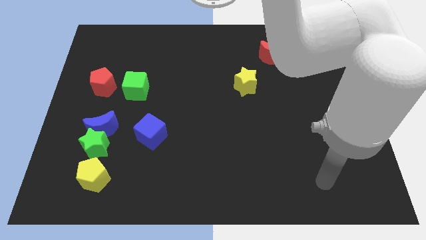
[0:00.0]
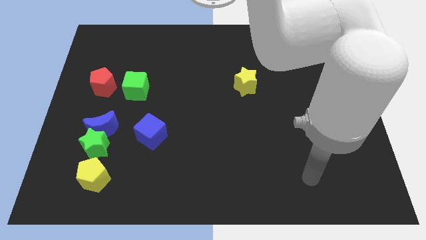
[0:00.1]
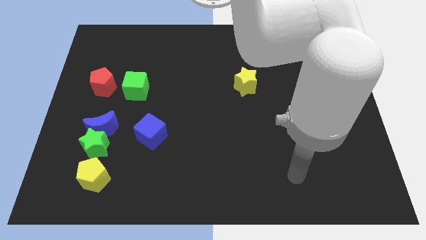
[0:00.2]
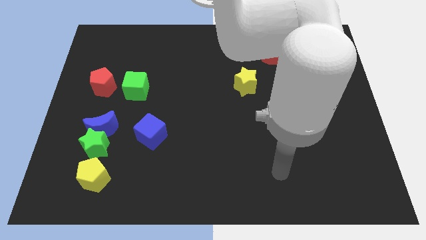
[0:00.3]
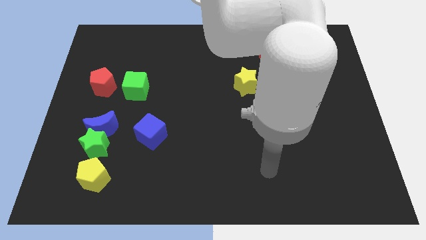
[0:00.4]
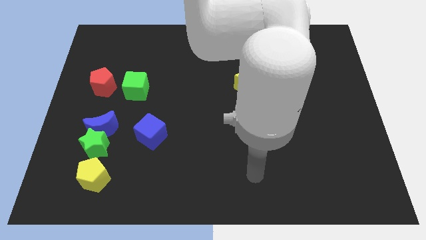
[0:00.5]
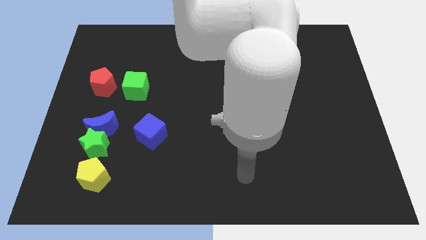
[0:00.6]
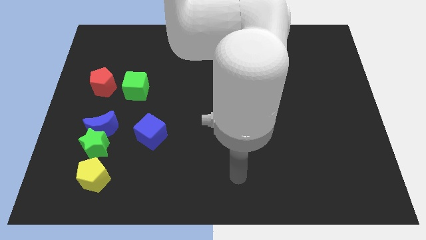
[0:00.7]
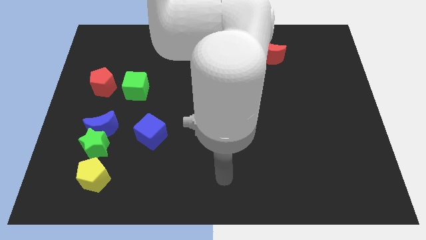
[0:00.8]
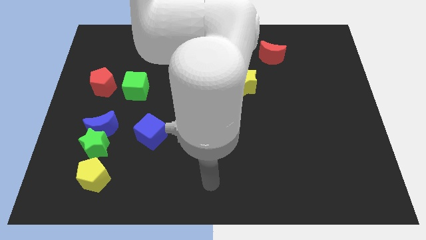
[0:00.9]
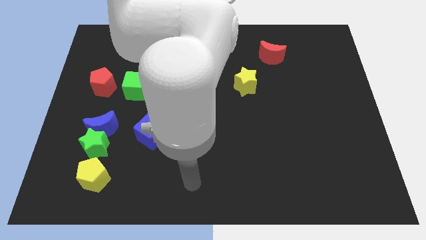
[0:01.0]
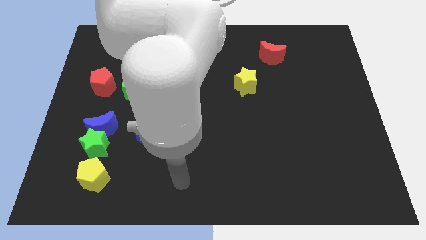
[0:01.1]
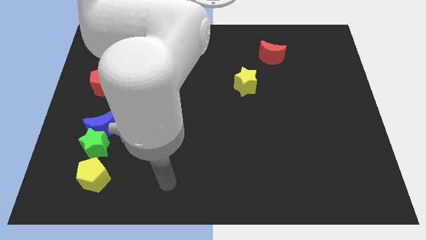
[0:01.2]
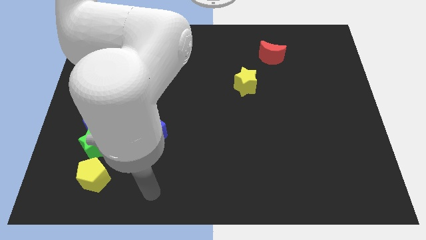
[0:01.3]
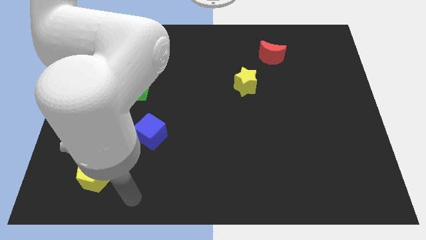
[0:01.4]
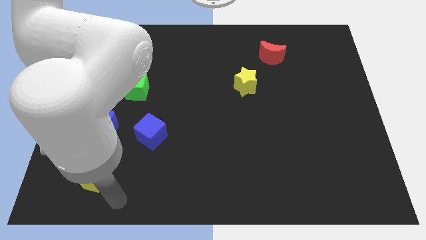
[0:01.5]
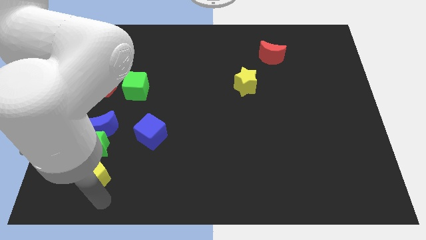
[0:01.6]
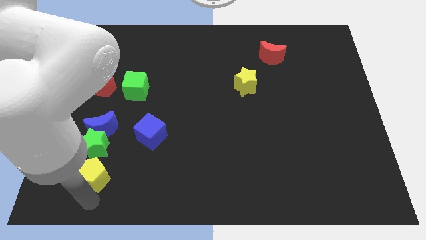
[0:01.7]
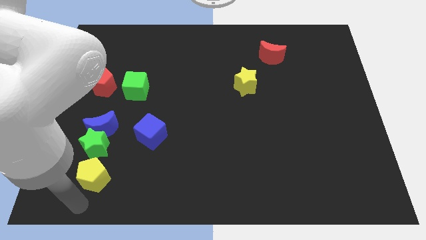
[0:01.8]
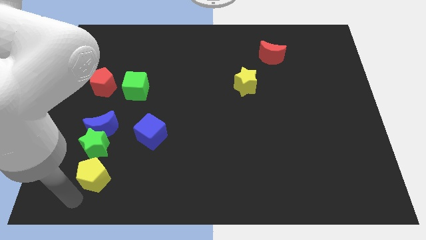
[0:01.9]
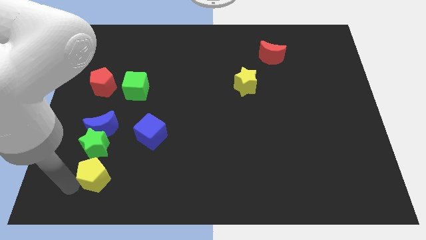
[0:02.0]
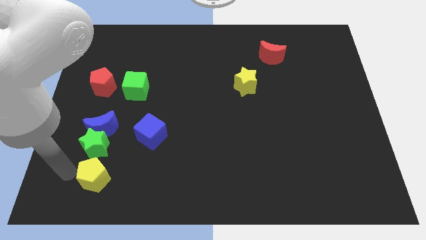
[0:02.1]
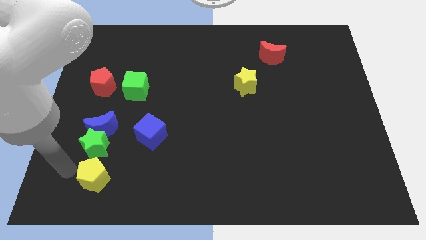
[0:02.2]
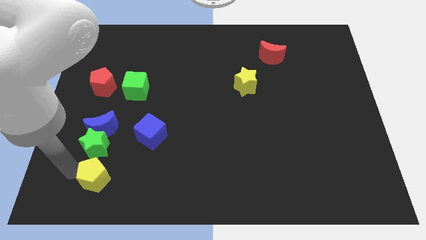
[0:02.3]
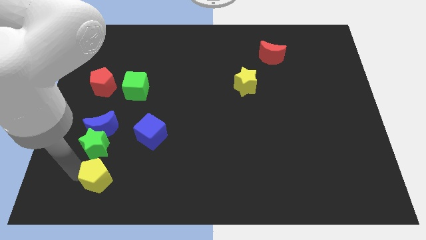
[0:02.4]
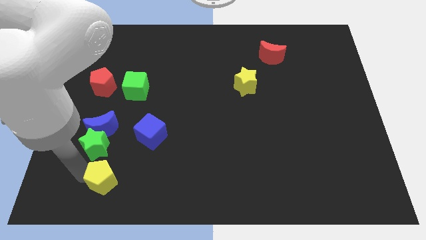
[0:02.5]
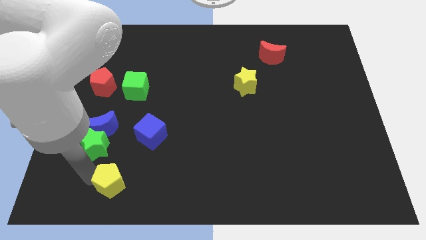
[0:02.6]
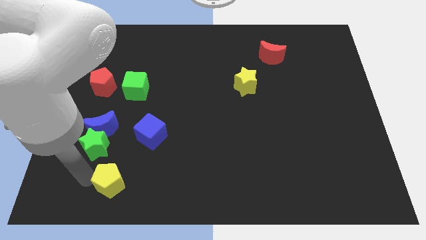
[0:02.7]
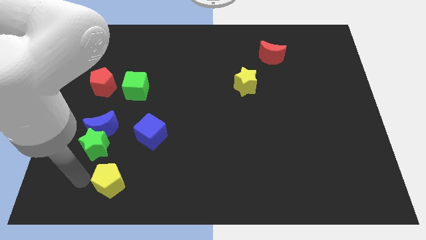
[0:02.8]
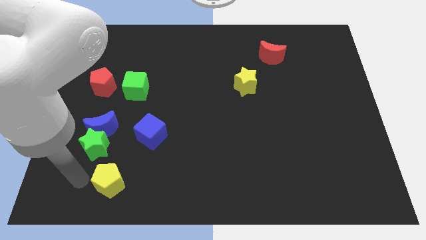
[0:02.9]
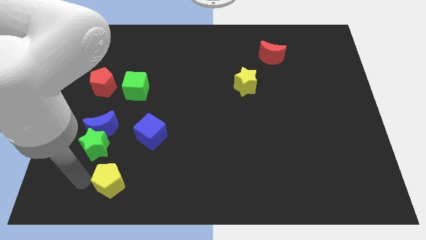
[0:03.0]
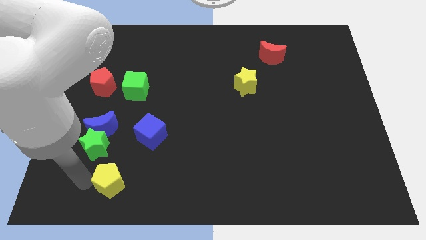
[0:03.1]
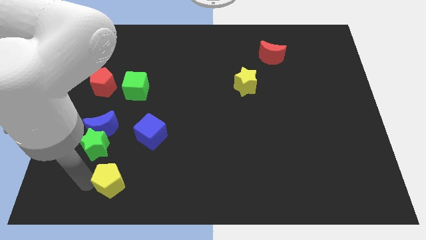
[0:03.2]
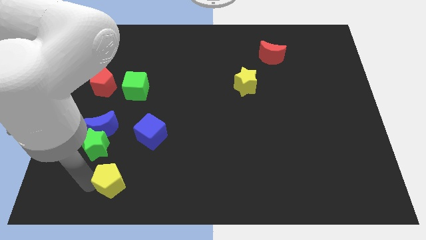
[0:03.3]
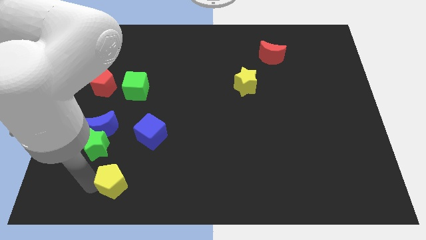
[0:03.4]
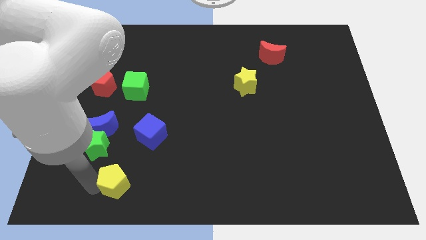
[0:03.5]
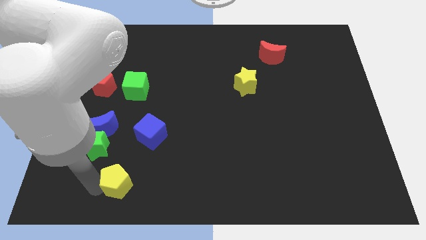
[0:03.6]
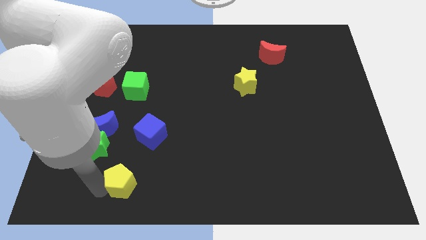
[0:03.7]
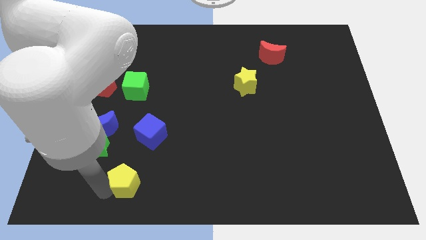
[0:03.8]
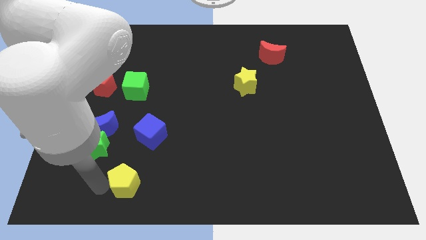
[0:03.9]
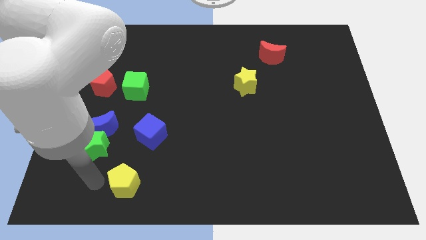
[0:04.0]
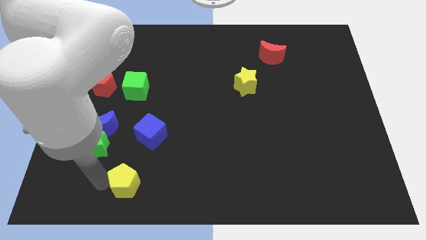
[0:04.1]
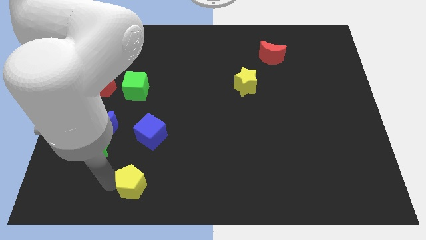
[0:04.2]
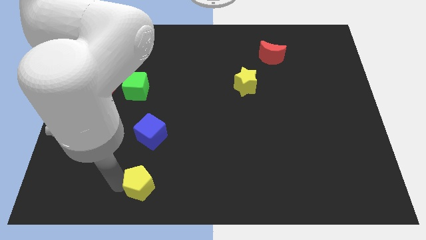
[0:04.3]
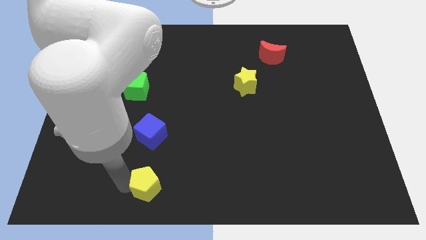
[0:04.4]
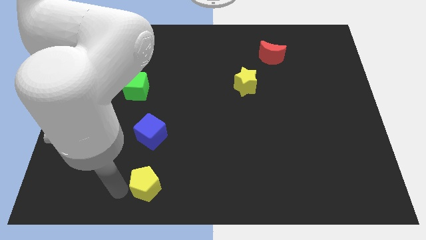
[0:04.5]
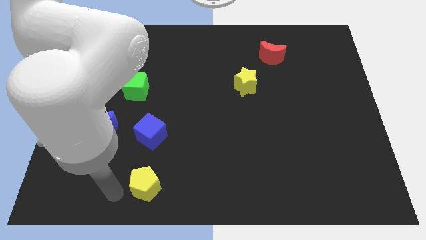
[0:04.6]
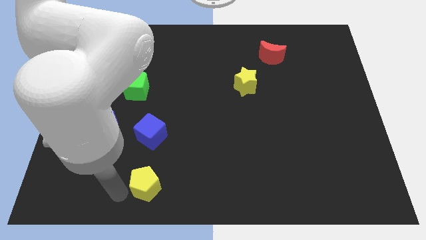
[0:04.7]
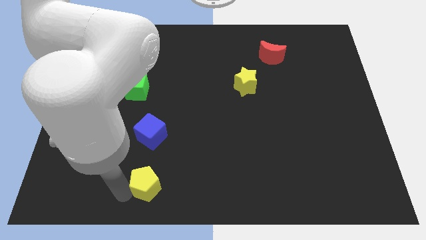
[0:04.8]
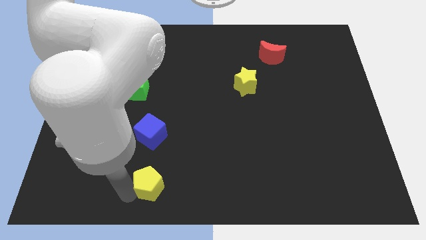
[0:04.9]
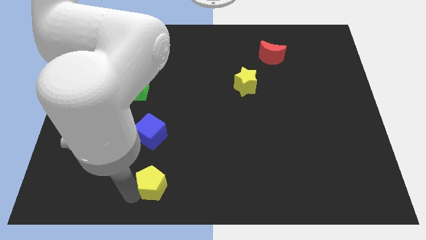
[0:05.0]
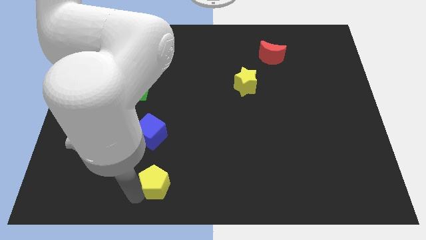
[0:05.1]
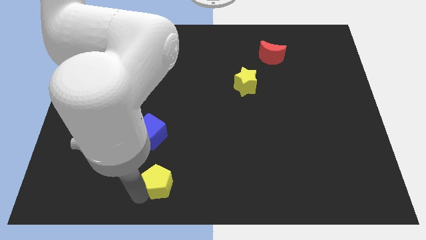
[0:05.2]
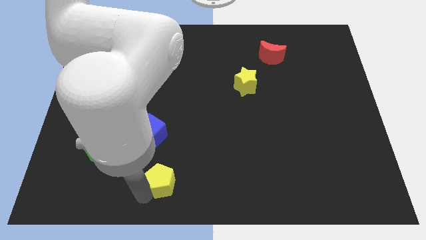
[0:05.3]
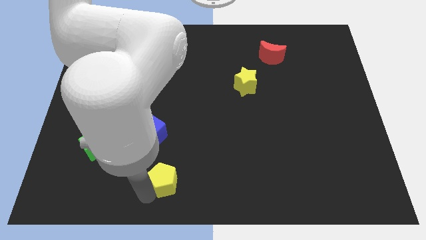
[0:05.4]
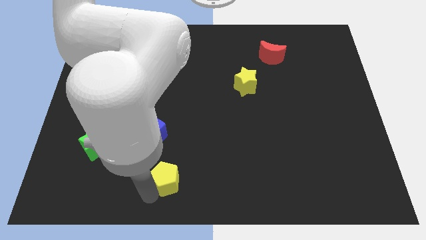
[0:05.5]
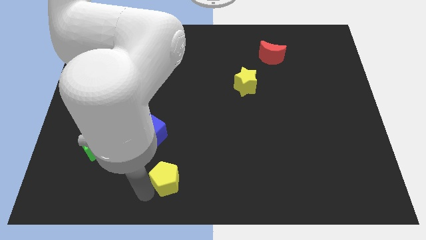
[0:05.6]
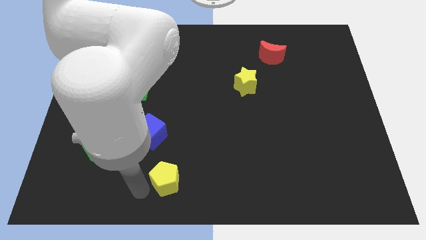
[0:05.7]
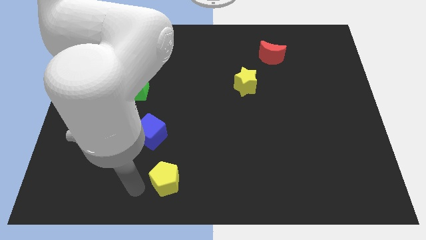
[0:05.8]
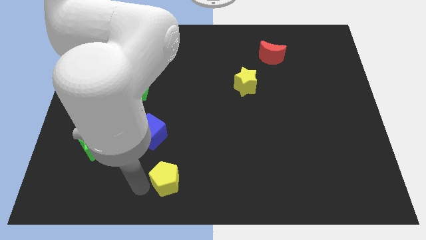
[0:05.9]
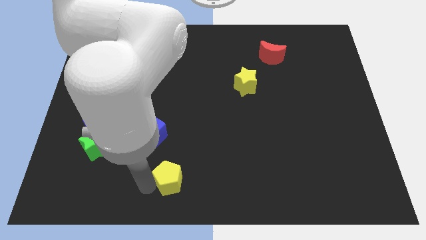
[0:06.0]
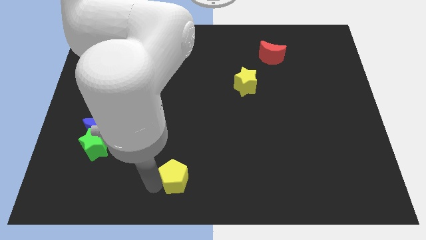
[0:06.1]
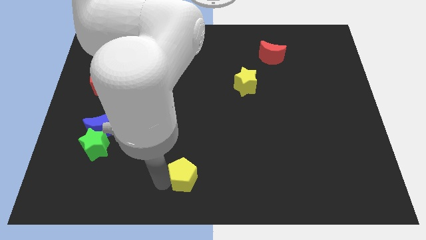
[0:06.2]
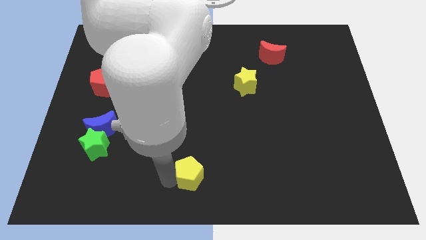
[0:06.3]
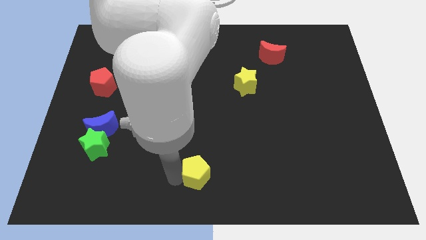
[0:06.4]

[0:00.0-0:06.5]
push the yellow pentagon right

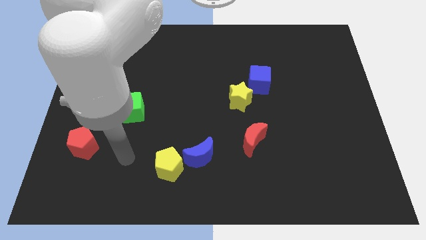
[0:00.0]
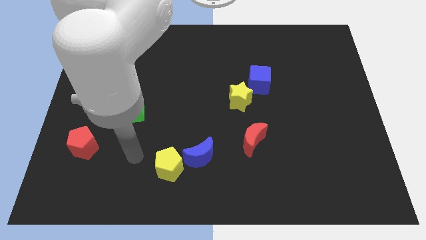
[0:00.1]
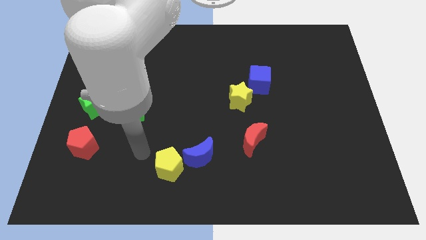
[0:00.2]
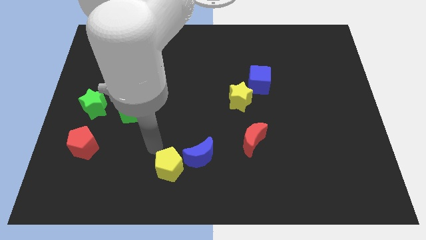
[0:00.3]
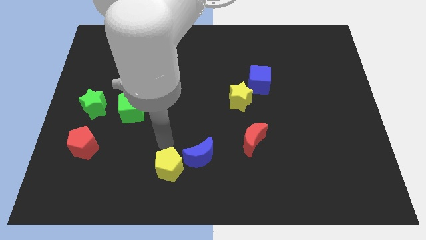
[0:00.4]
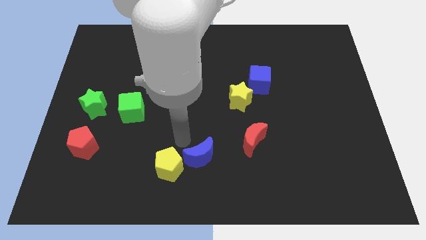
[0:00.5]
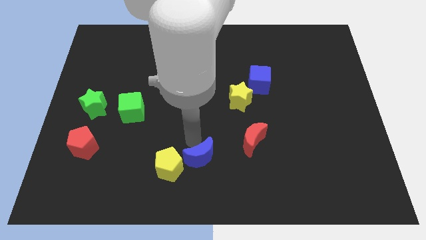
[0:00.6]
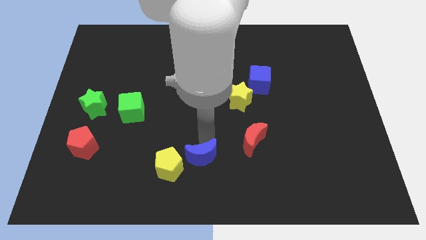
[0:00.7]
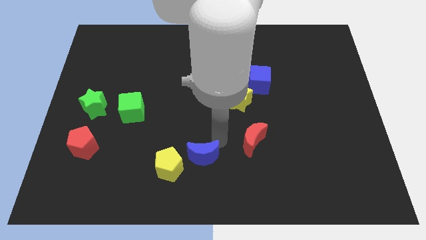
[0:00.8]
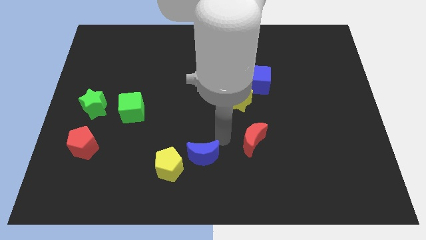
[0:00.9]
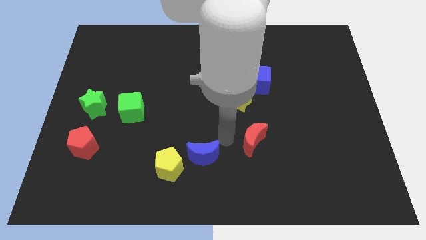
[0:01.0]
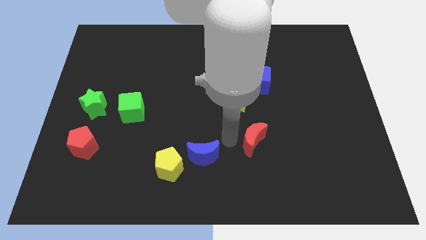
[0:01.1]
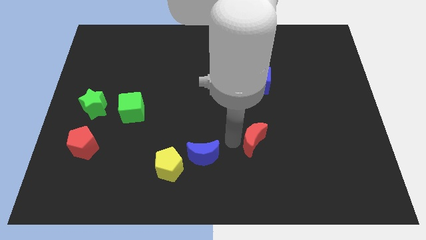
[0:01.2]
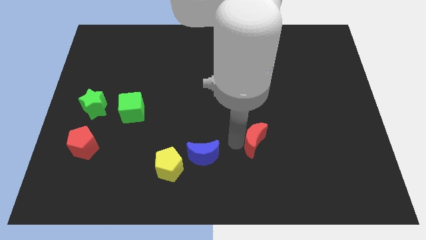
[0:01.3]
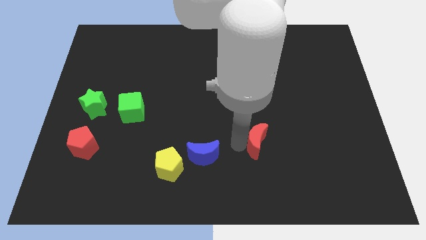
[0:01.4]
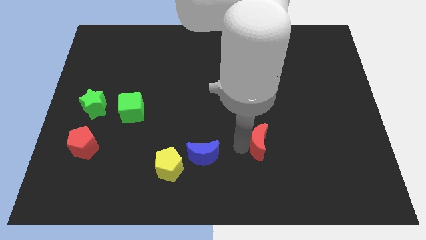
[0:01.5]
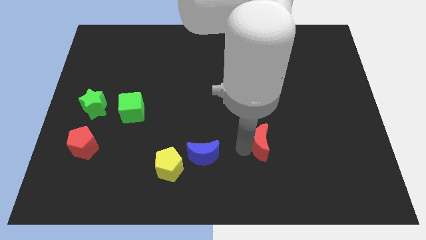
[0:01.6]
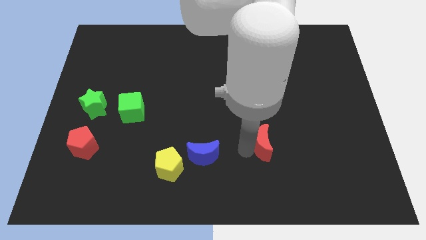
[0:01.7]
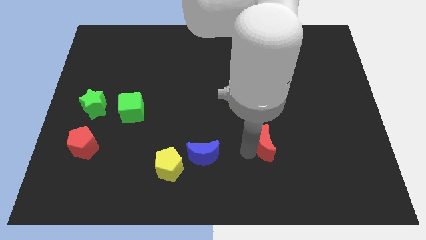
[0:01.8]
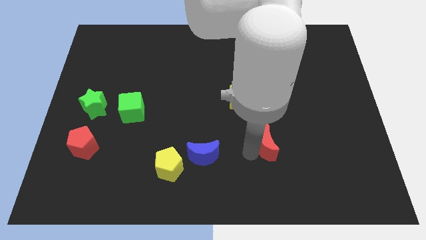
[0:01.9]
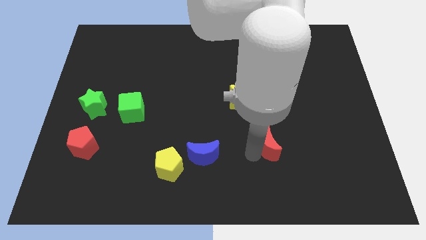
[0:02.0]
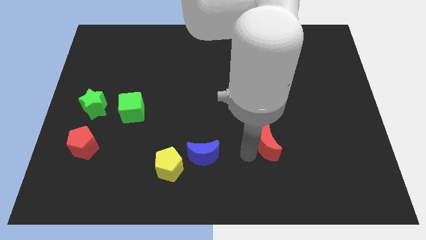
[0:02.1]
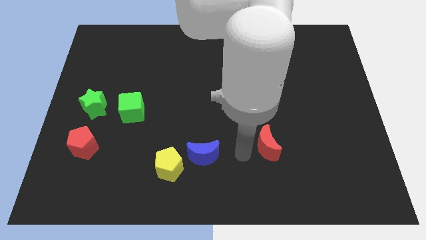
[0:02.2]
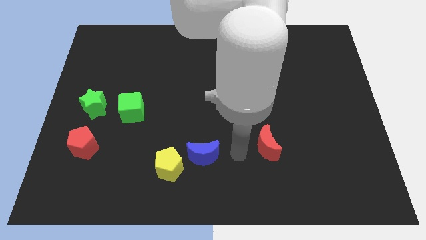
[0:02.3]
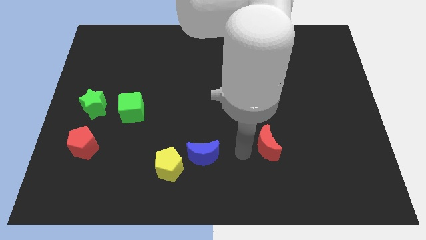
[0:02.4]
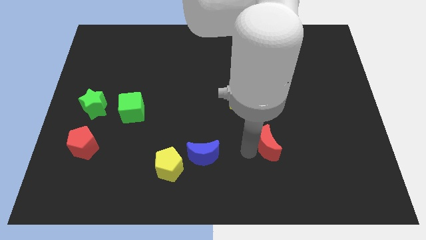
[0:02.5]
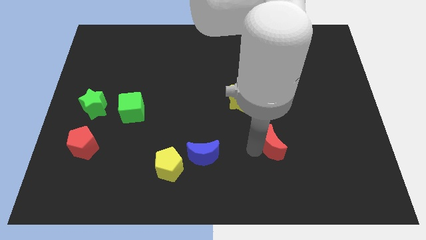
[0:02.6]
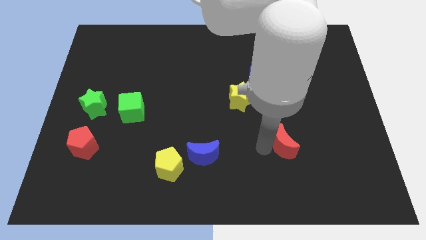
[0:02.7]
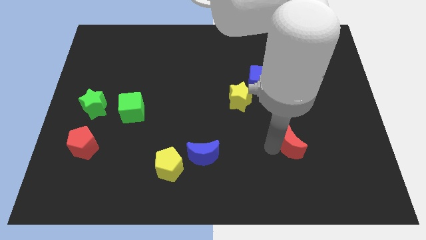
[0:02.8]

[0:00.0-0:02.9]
move the red moon to the right a little bit
